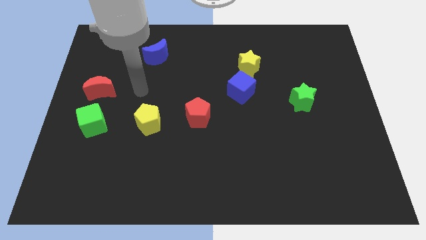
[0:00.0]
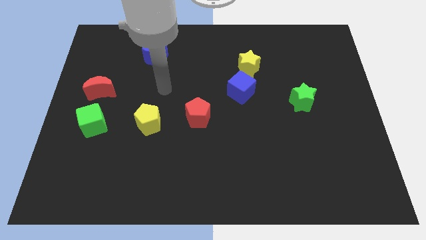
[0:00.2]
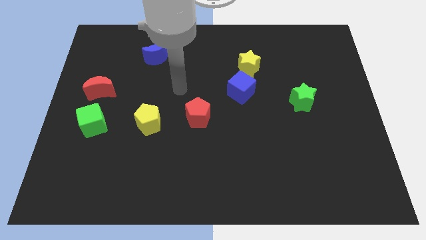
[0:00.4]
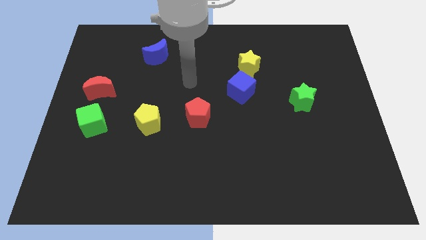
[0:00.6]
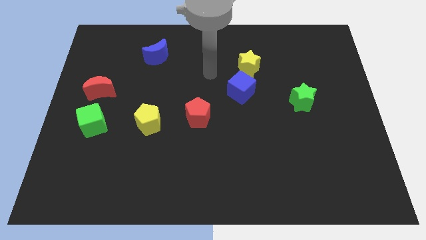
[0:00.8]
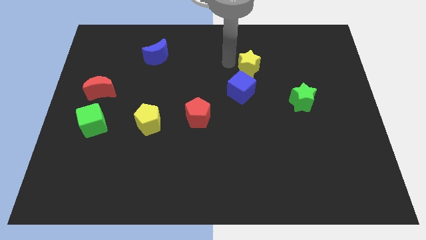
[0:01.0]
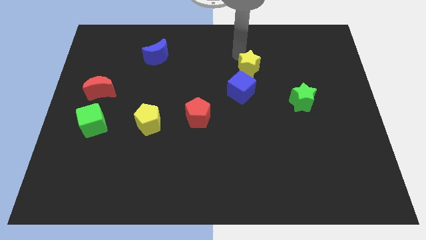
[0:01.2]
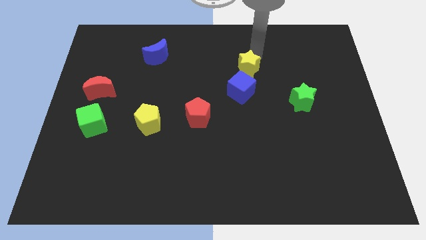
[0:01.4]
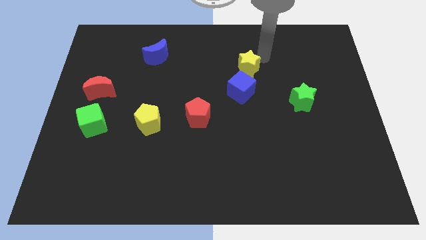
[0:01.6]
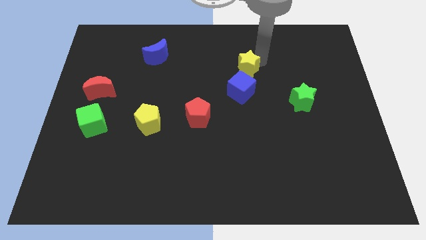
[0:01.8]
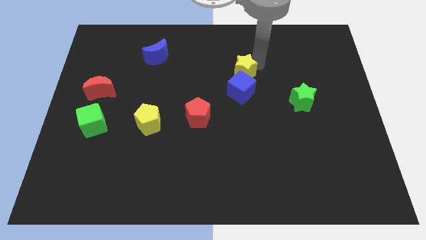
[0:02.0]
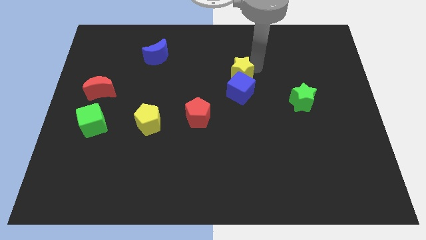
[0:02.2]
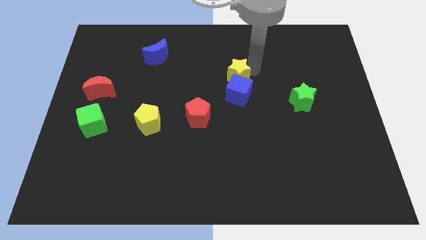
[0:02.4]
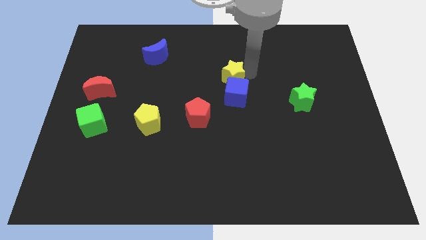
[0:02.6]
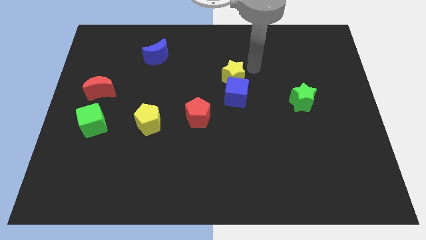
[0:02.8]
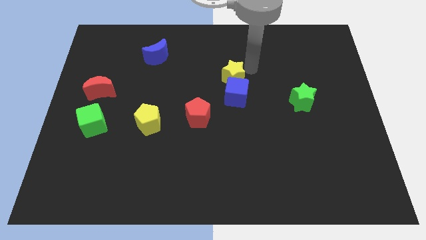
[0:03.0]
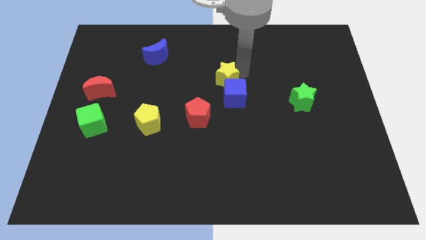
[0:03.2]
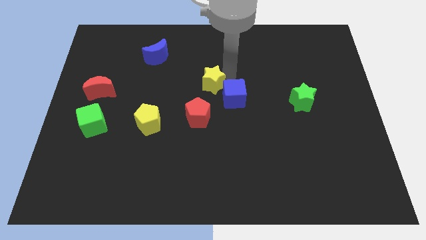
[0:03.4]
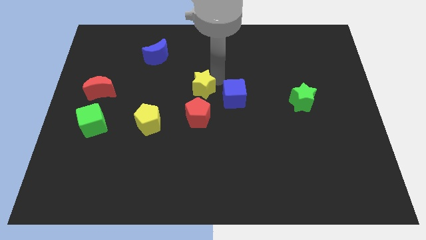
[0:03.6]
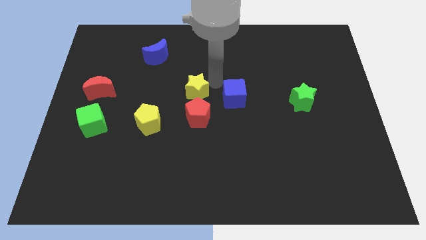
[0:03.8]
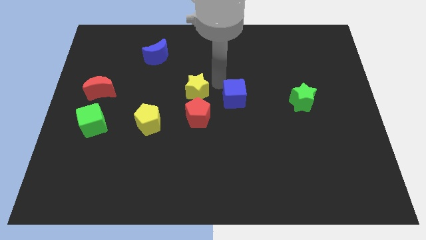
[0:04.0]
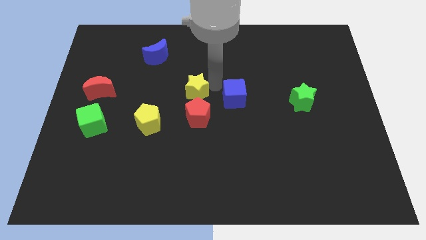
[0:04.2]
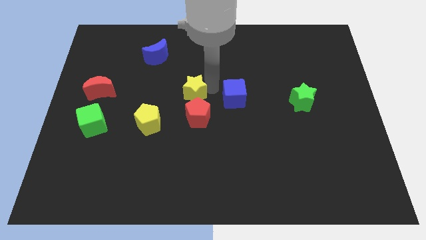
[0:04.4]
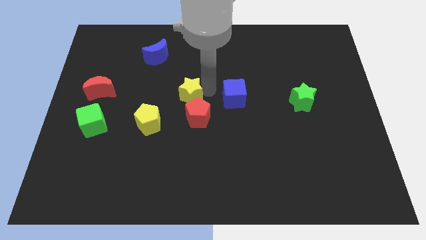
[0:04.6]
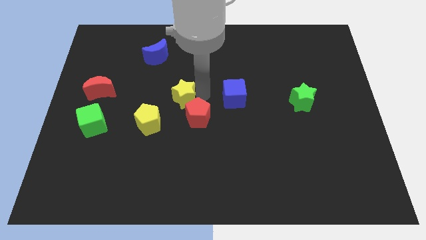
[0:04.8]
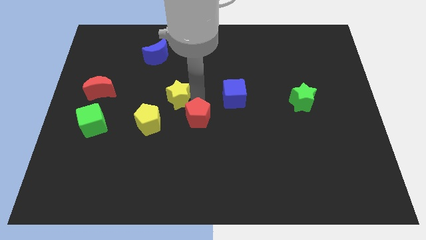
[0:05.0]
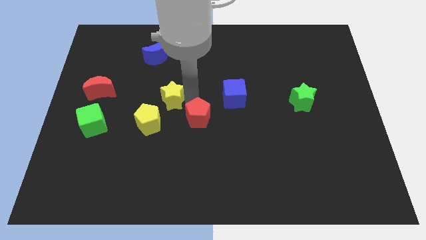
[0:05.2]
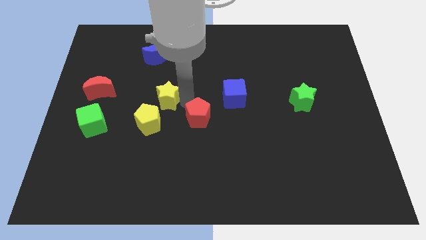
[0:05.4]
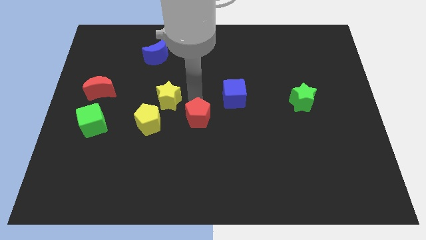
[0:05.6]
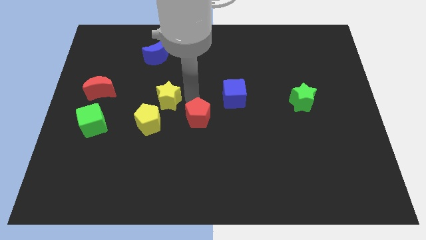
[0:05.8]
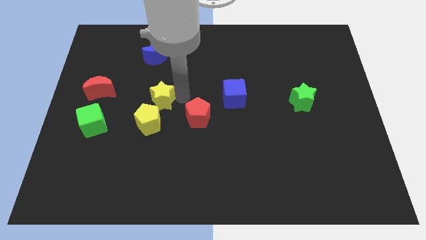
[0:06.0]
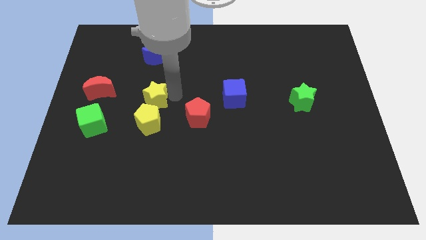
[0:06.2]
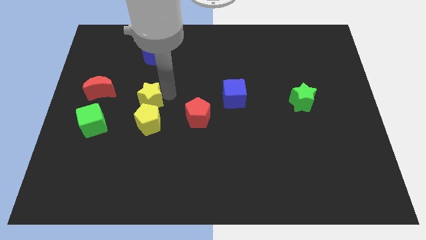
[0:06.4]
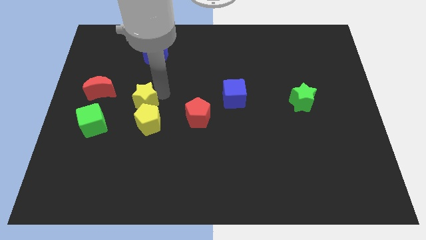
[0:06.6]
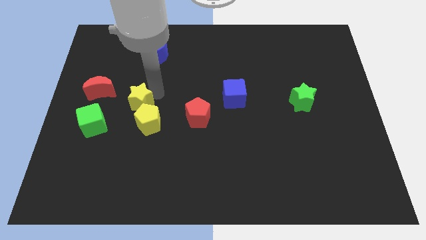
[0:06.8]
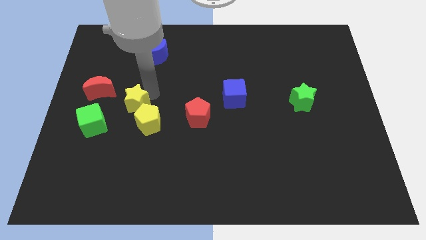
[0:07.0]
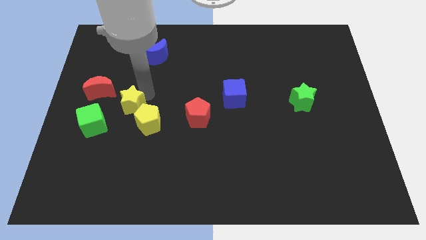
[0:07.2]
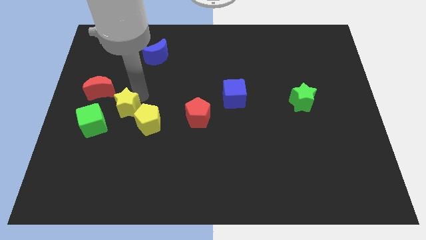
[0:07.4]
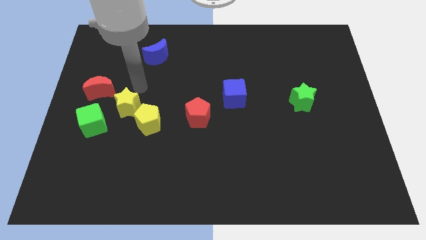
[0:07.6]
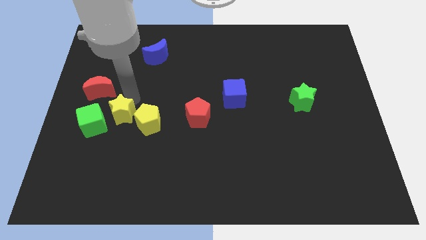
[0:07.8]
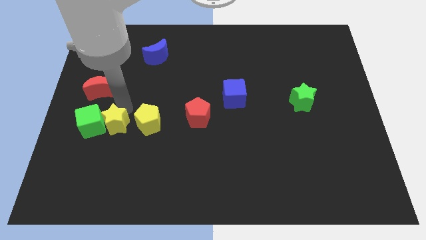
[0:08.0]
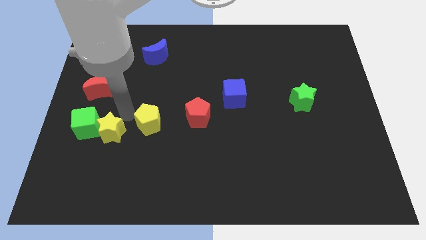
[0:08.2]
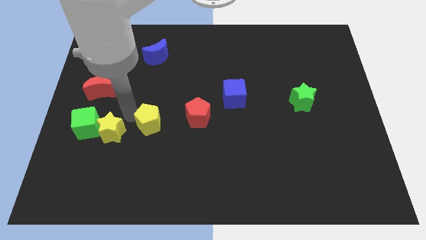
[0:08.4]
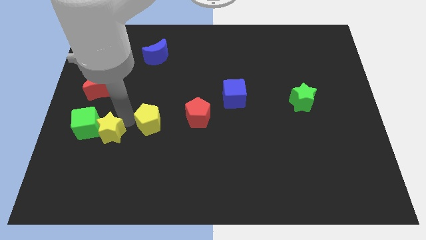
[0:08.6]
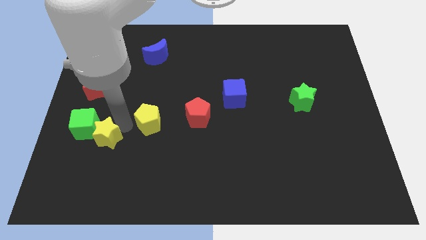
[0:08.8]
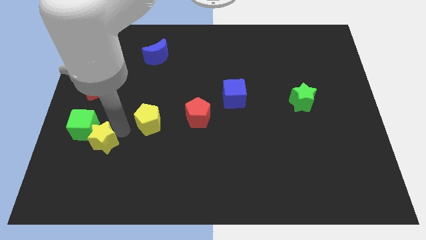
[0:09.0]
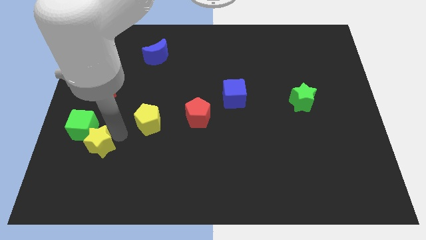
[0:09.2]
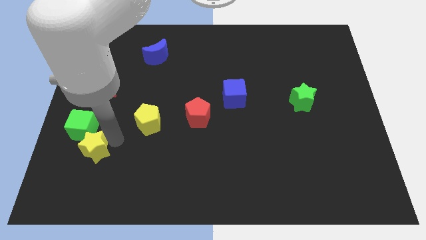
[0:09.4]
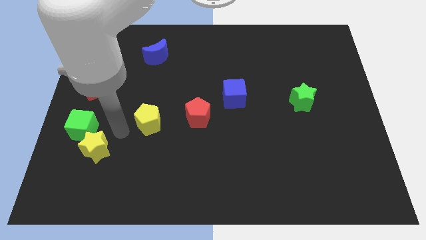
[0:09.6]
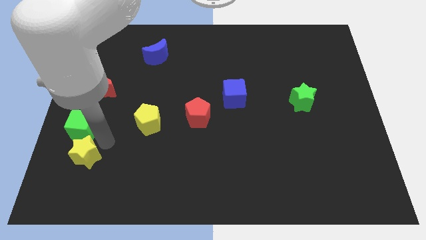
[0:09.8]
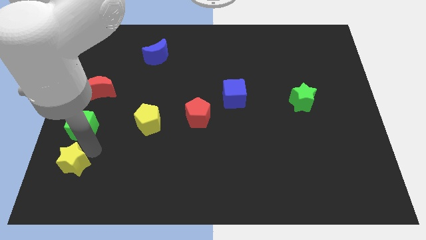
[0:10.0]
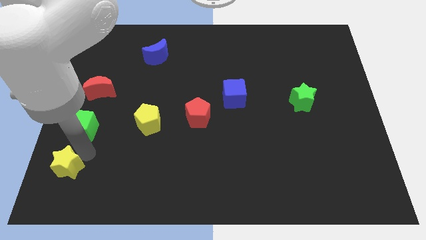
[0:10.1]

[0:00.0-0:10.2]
push the yellow star to the bottom left

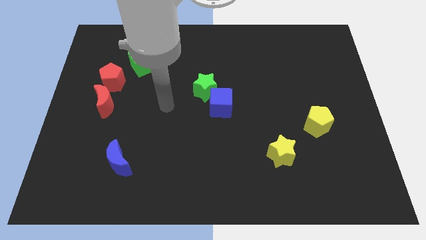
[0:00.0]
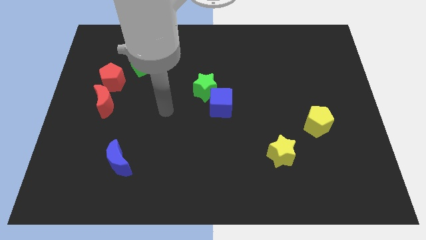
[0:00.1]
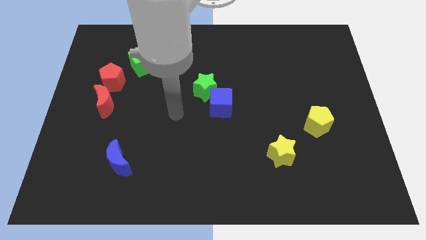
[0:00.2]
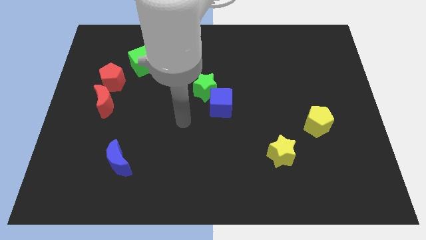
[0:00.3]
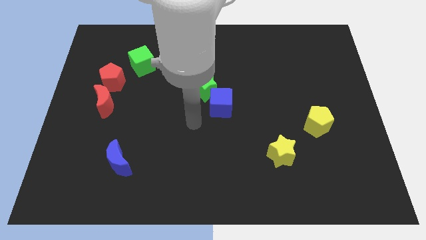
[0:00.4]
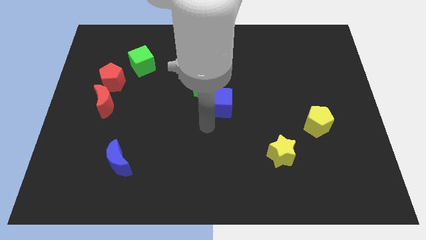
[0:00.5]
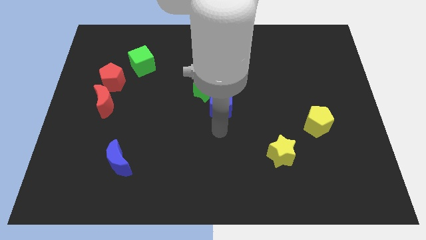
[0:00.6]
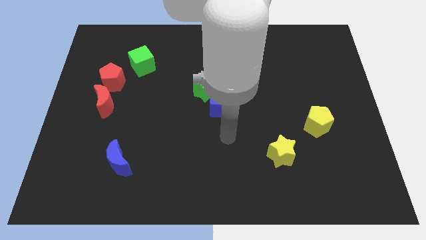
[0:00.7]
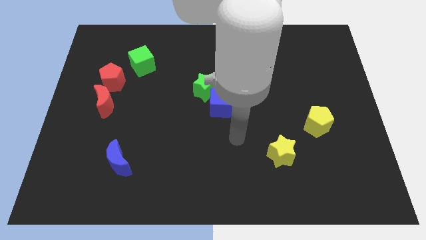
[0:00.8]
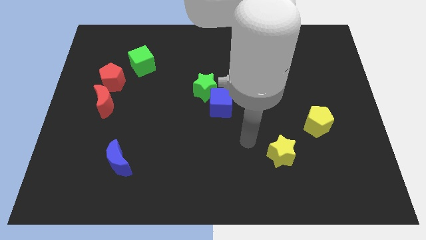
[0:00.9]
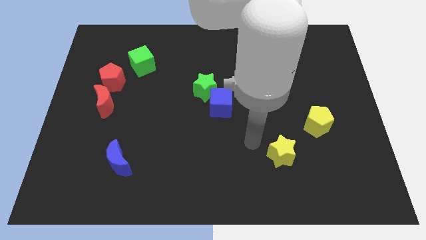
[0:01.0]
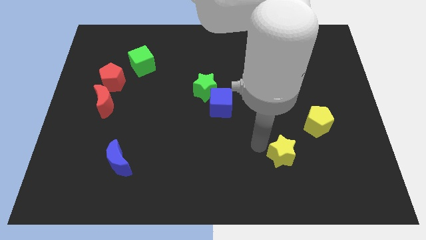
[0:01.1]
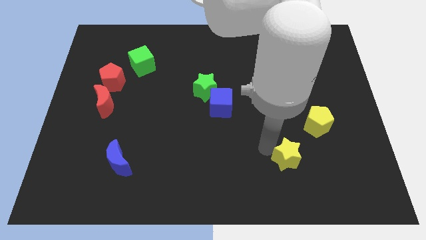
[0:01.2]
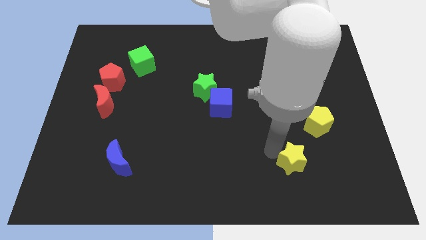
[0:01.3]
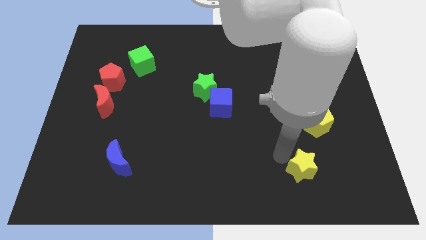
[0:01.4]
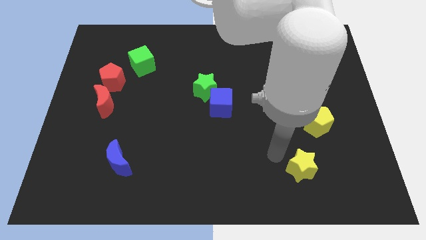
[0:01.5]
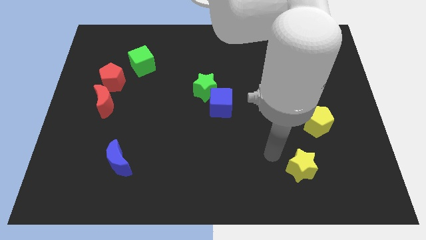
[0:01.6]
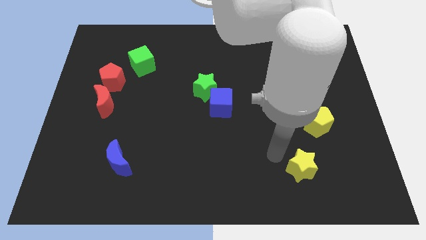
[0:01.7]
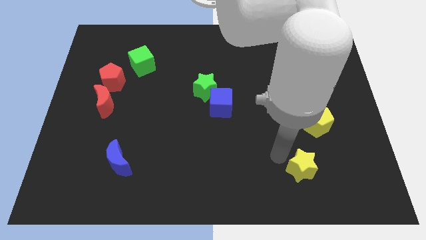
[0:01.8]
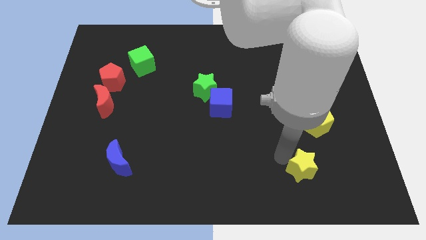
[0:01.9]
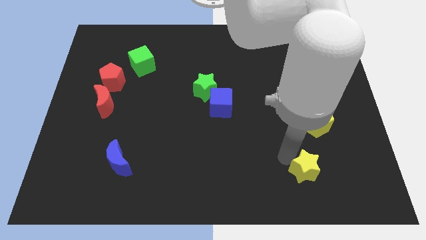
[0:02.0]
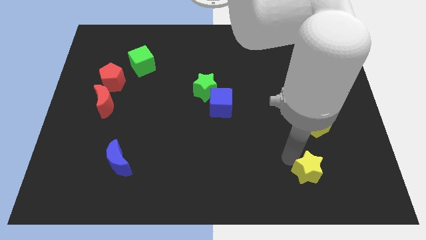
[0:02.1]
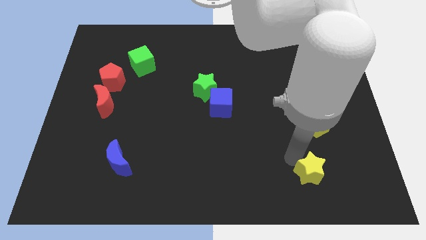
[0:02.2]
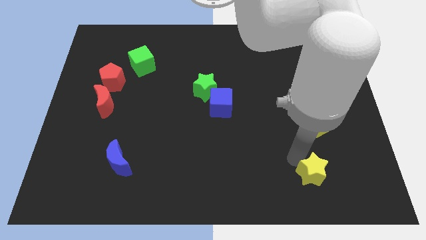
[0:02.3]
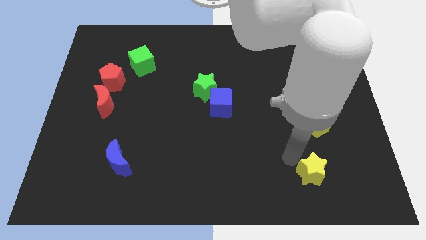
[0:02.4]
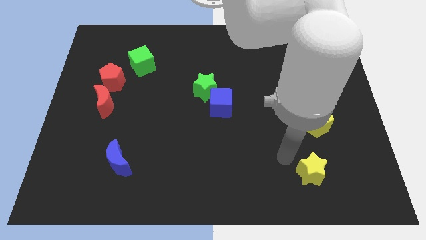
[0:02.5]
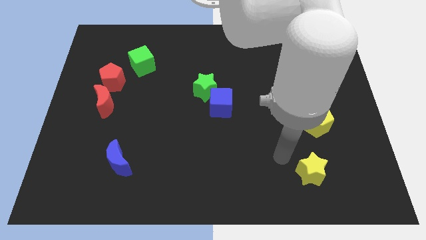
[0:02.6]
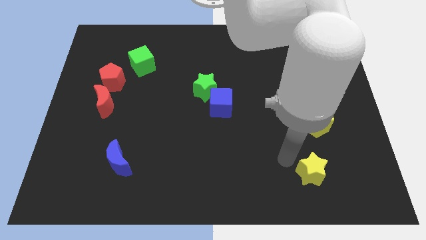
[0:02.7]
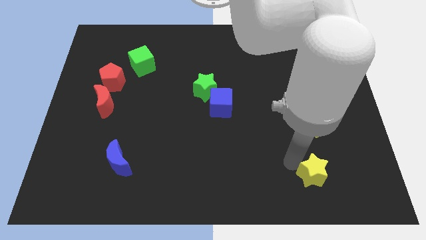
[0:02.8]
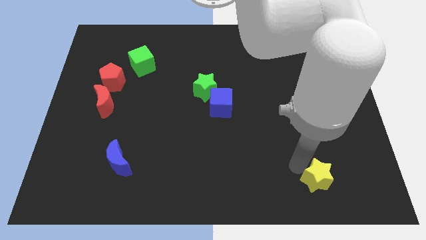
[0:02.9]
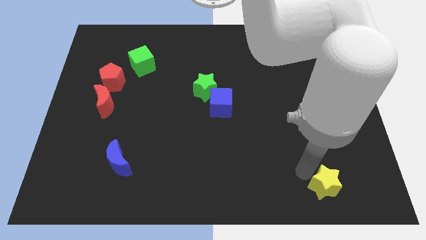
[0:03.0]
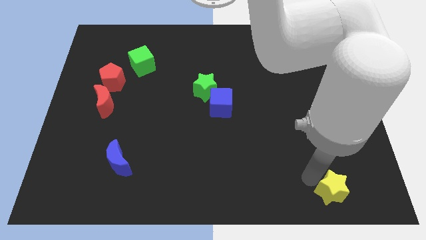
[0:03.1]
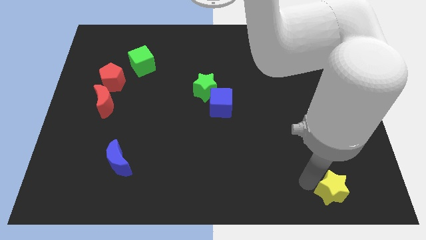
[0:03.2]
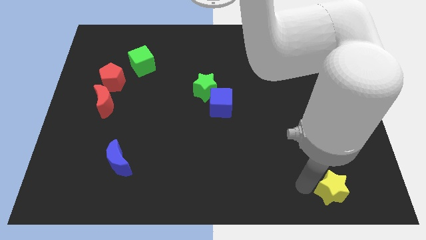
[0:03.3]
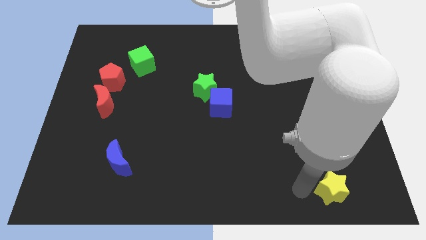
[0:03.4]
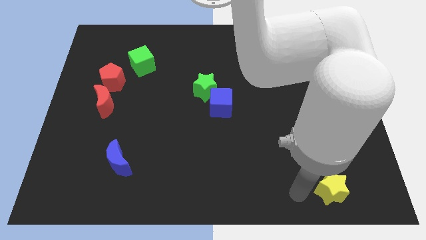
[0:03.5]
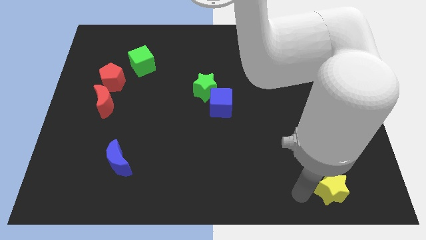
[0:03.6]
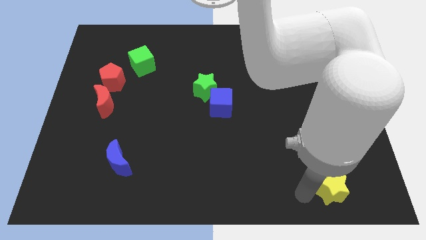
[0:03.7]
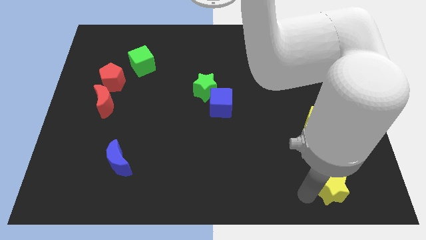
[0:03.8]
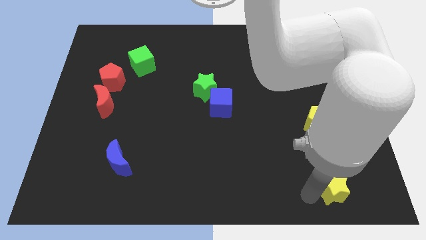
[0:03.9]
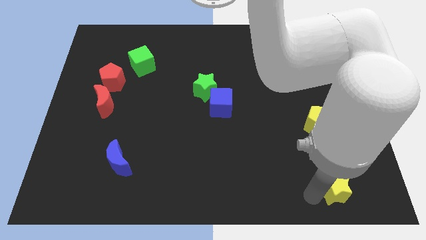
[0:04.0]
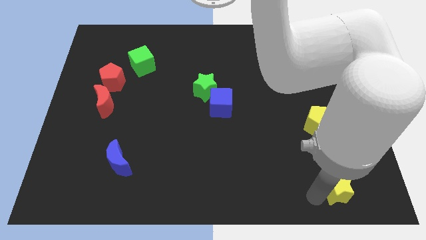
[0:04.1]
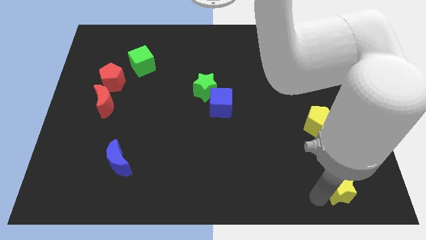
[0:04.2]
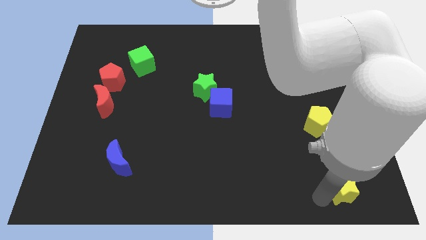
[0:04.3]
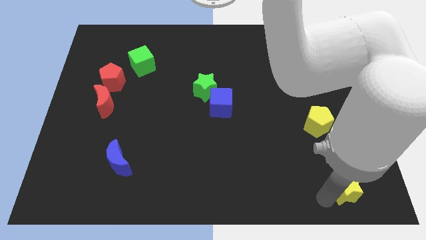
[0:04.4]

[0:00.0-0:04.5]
move the yellow star to the bottom right of the board
